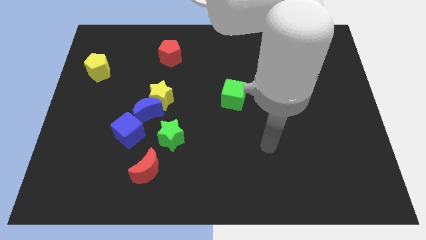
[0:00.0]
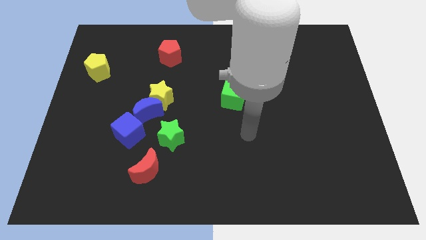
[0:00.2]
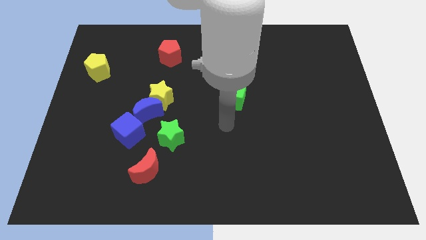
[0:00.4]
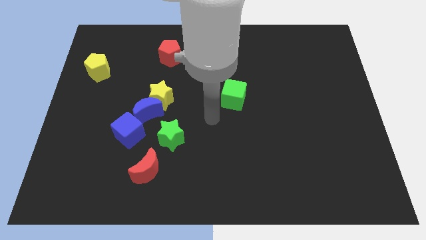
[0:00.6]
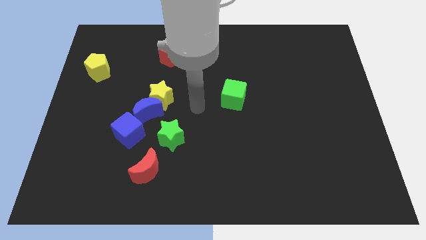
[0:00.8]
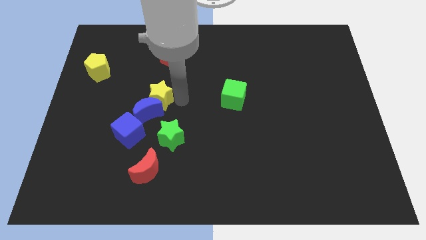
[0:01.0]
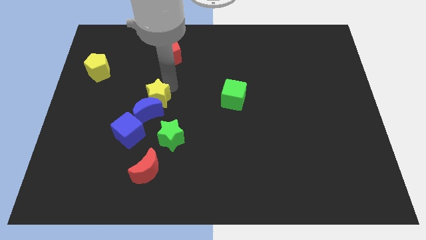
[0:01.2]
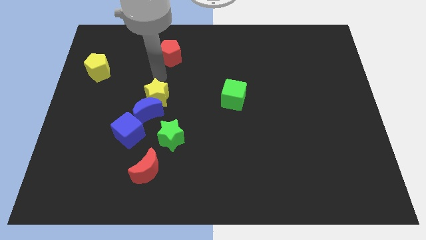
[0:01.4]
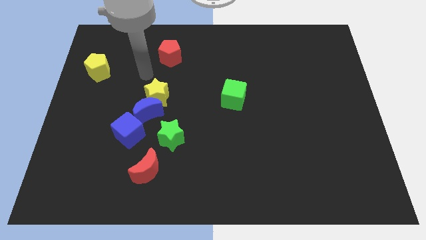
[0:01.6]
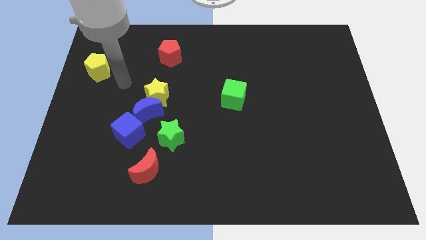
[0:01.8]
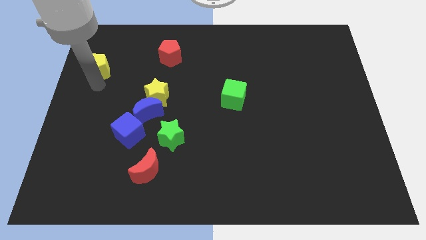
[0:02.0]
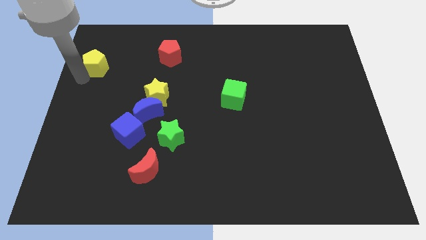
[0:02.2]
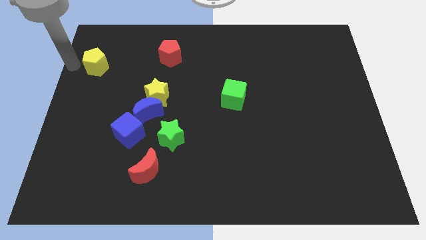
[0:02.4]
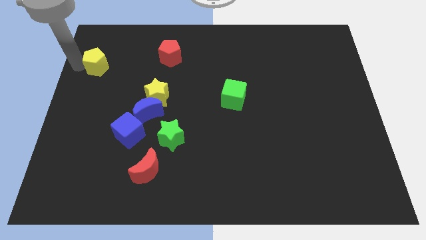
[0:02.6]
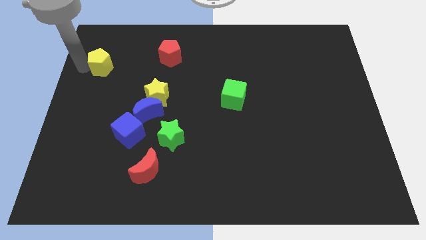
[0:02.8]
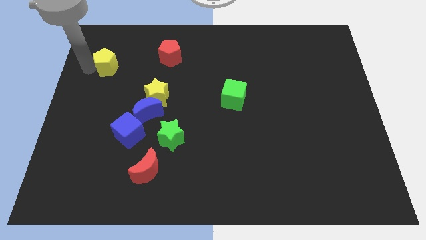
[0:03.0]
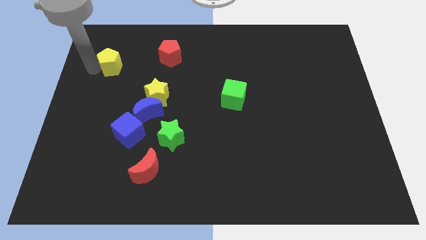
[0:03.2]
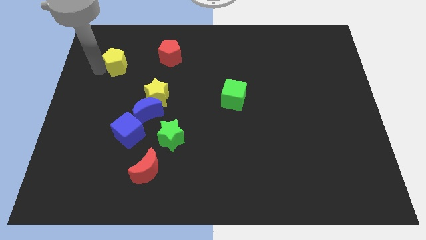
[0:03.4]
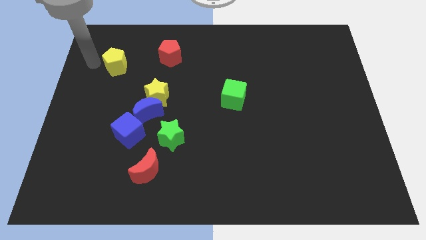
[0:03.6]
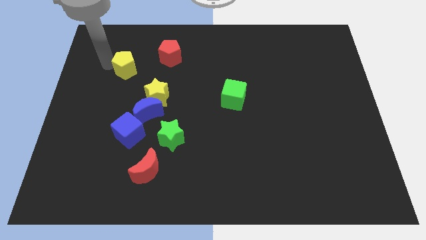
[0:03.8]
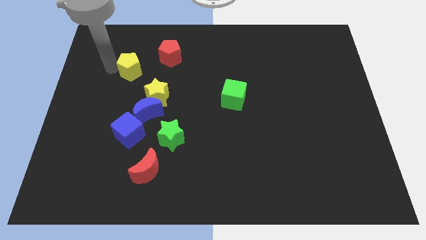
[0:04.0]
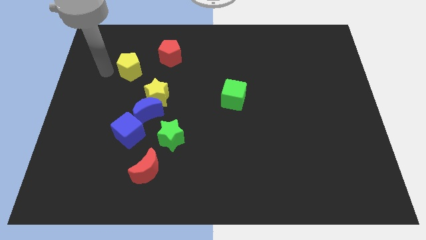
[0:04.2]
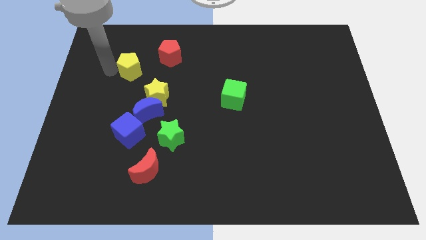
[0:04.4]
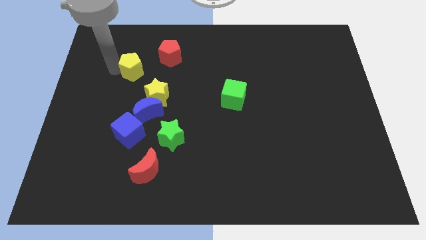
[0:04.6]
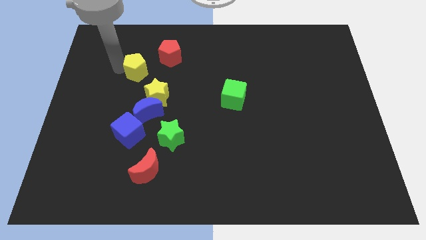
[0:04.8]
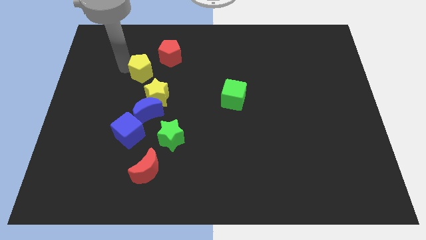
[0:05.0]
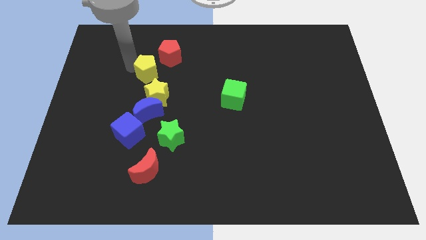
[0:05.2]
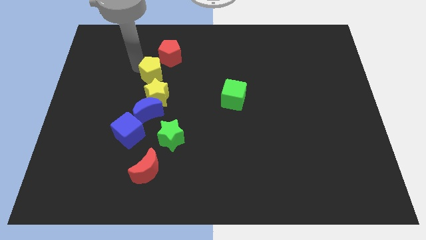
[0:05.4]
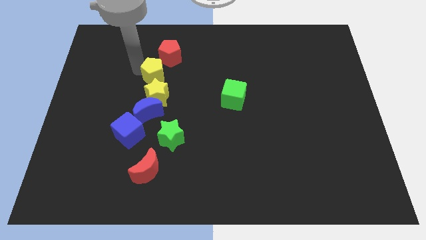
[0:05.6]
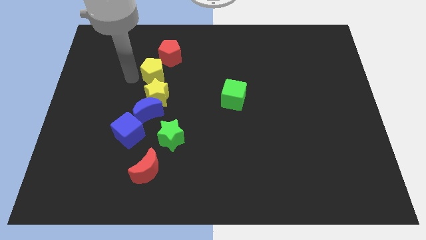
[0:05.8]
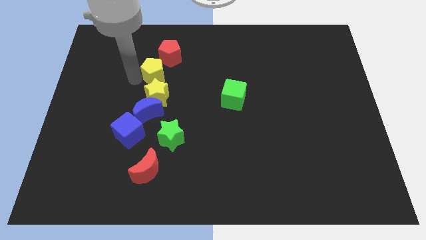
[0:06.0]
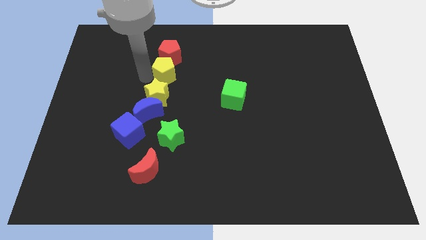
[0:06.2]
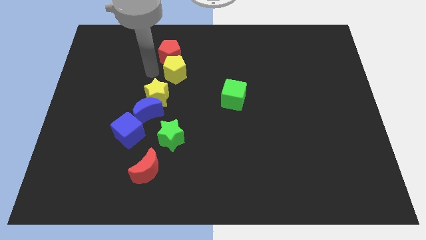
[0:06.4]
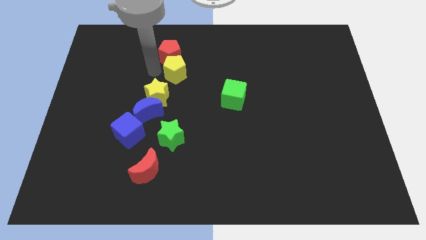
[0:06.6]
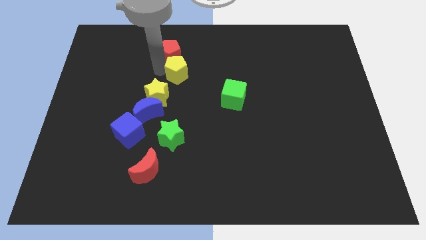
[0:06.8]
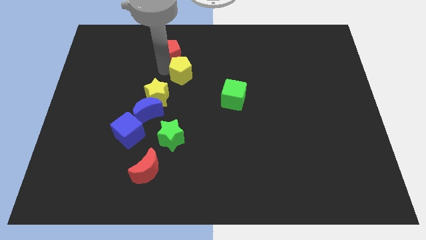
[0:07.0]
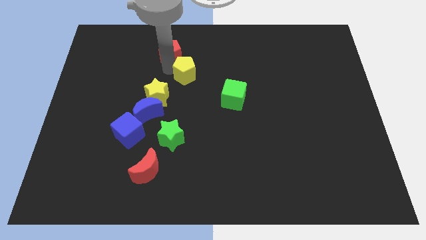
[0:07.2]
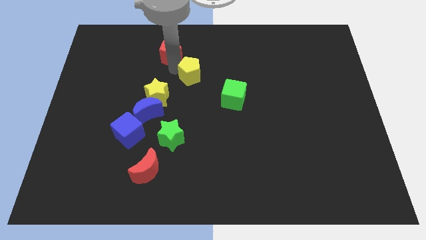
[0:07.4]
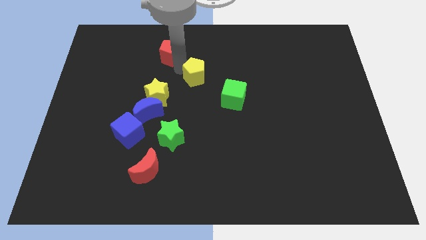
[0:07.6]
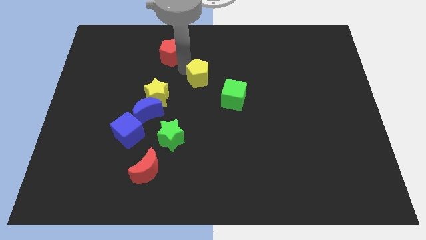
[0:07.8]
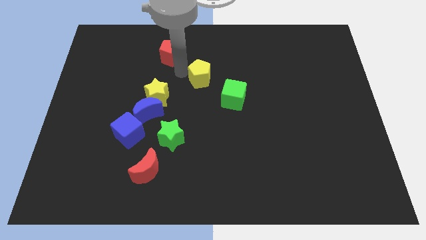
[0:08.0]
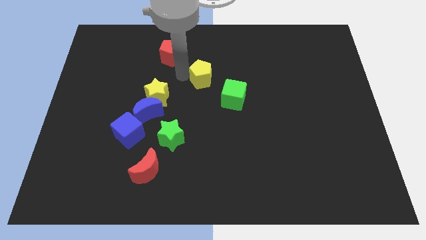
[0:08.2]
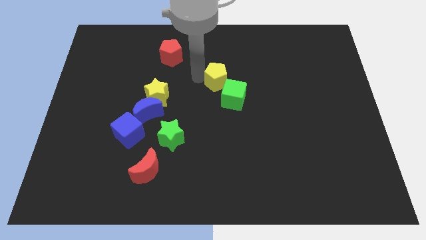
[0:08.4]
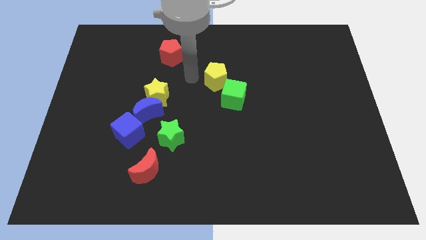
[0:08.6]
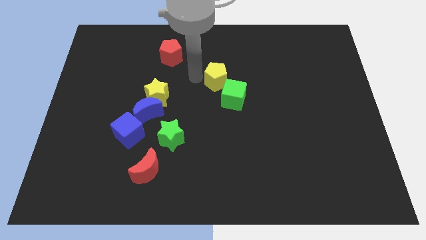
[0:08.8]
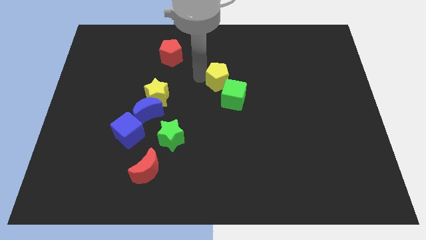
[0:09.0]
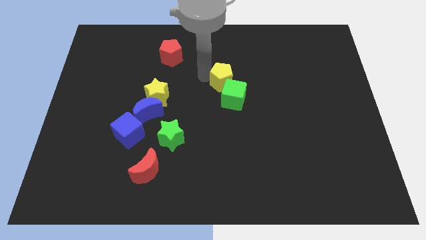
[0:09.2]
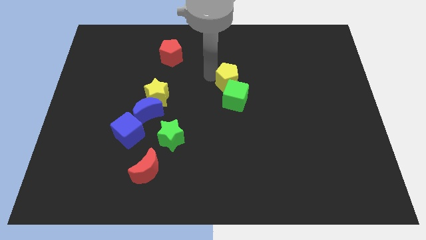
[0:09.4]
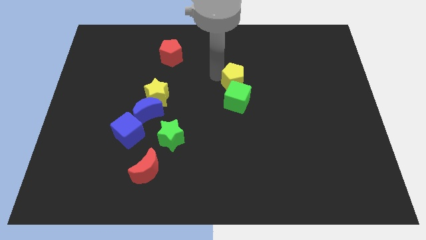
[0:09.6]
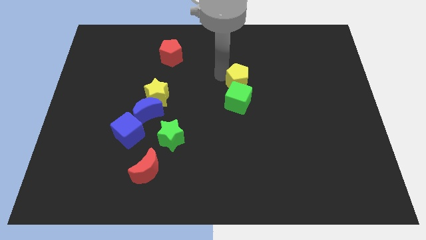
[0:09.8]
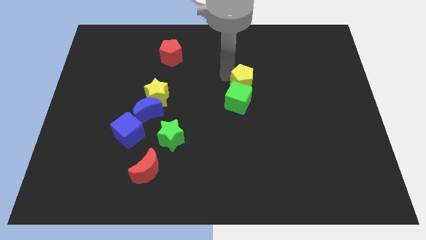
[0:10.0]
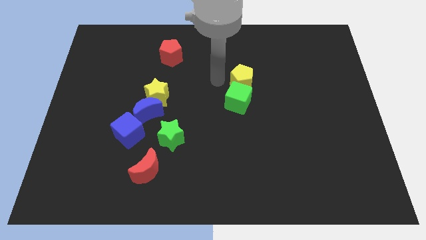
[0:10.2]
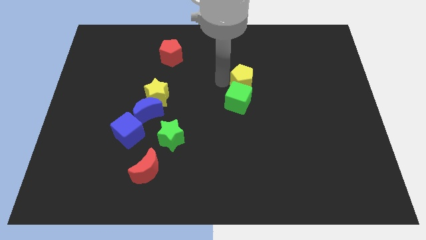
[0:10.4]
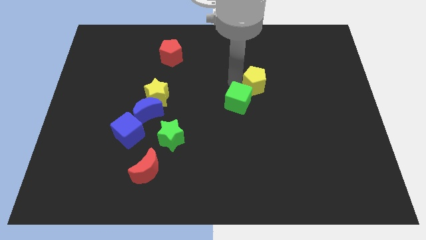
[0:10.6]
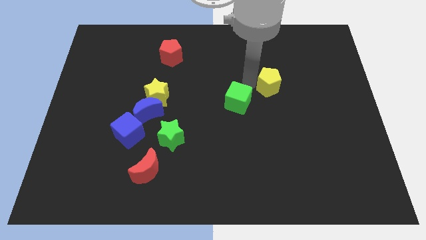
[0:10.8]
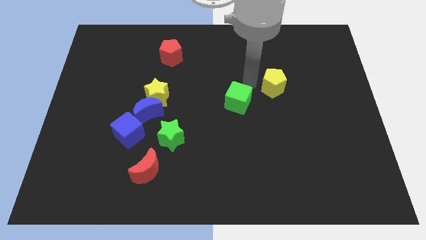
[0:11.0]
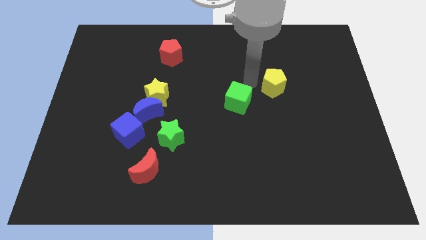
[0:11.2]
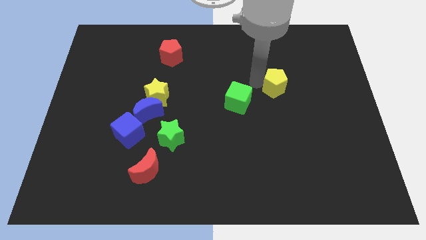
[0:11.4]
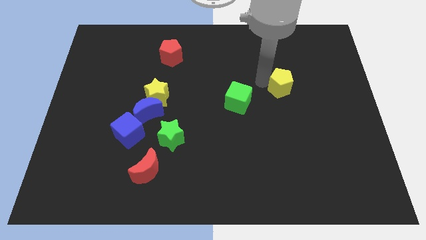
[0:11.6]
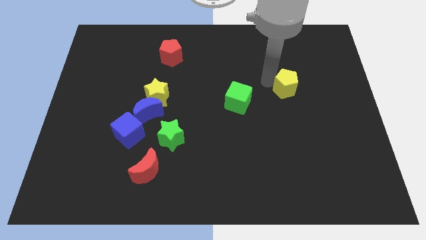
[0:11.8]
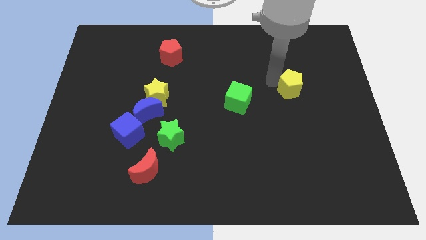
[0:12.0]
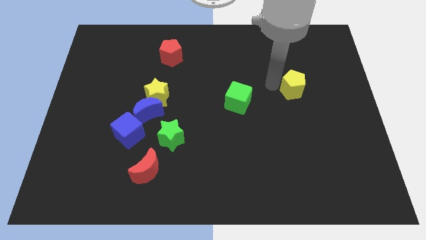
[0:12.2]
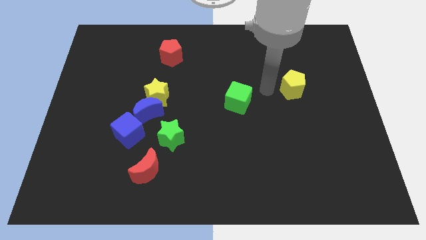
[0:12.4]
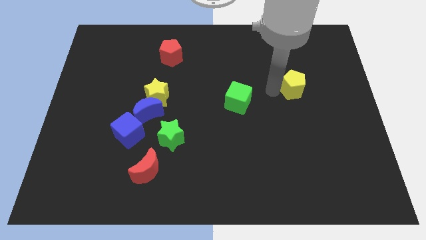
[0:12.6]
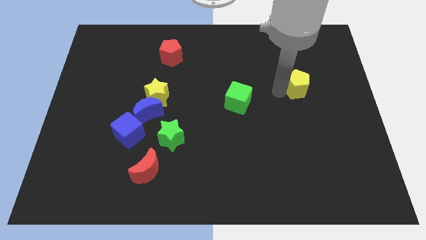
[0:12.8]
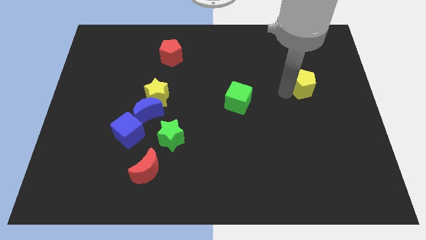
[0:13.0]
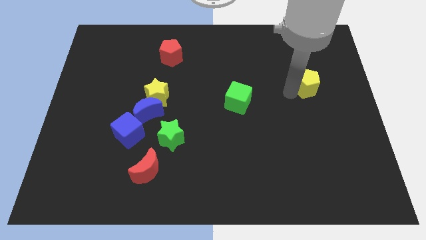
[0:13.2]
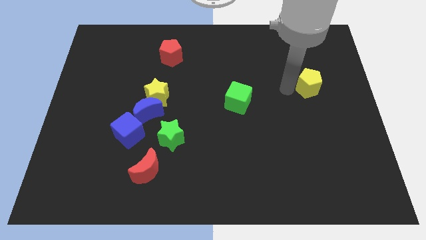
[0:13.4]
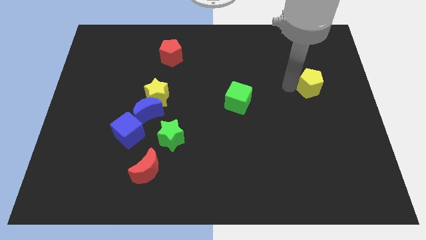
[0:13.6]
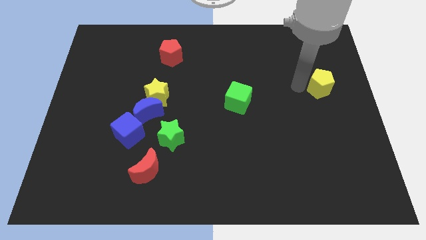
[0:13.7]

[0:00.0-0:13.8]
put the yellow pentagon to the center right

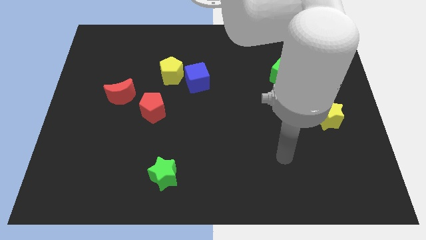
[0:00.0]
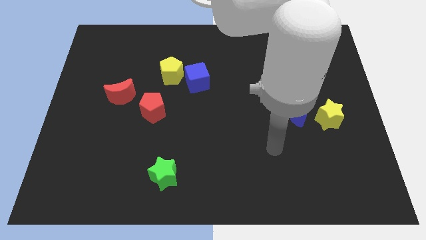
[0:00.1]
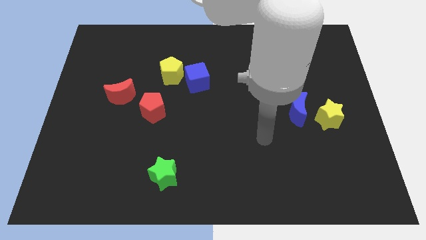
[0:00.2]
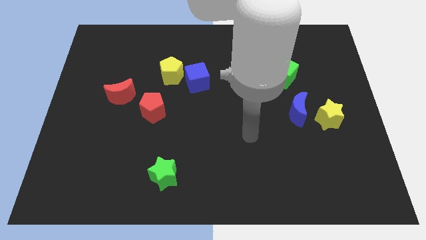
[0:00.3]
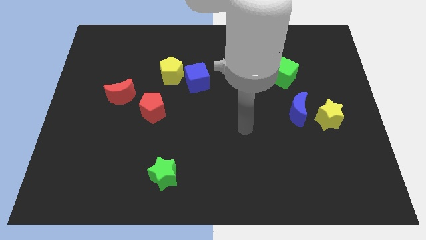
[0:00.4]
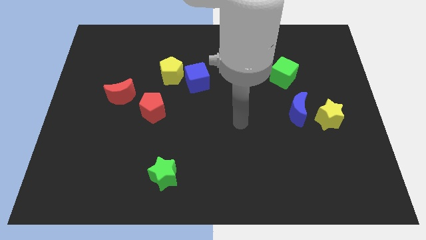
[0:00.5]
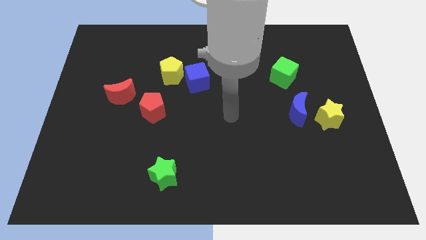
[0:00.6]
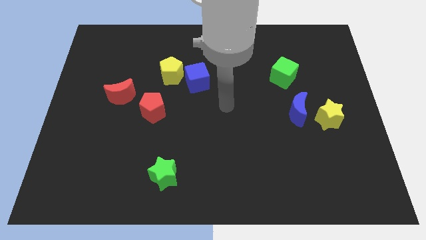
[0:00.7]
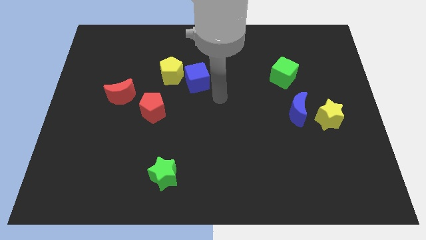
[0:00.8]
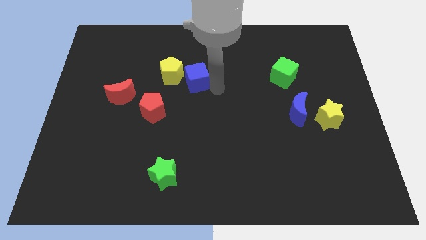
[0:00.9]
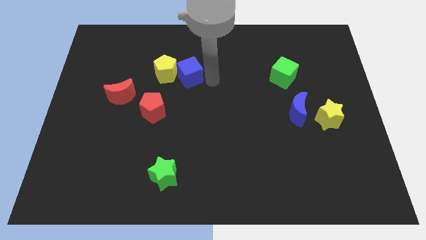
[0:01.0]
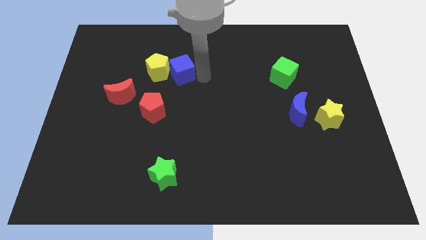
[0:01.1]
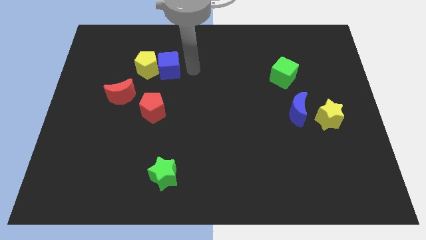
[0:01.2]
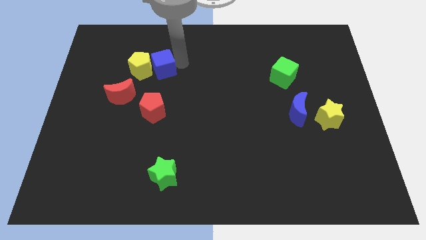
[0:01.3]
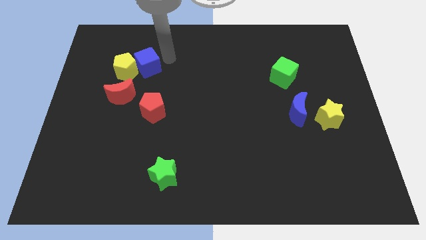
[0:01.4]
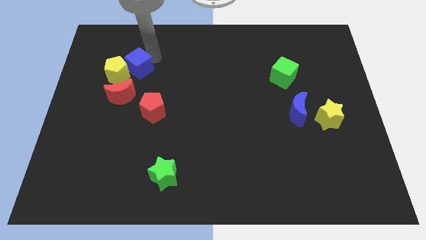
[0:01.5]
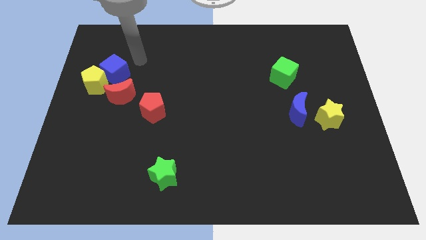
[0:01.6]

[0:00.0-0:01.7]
put the yellow pentagon to the left side of the board
